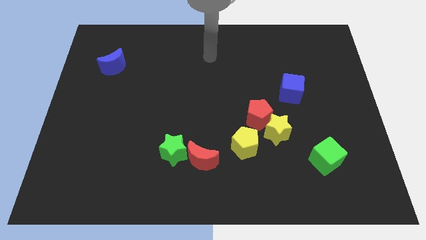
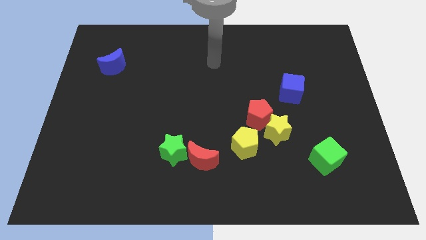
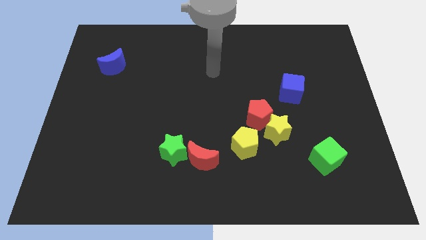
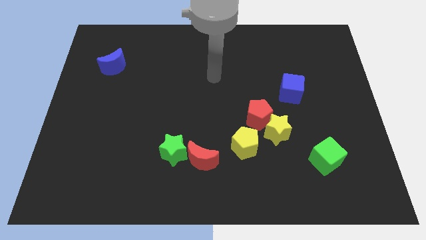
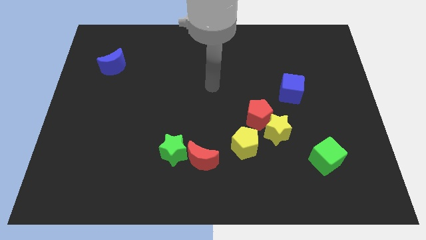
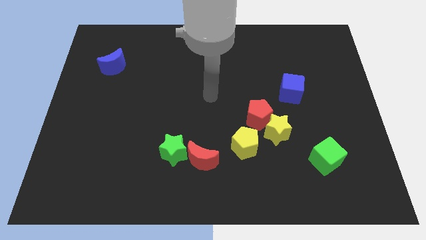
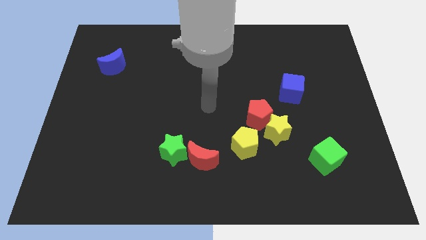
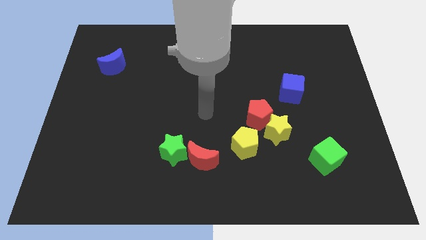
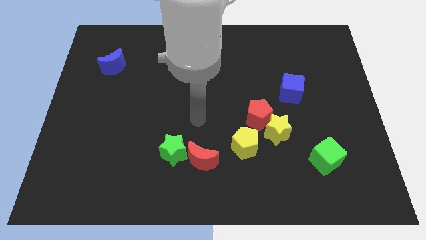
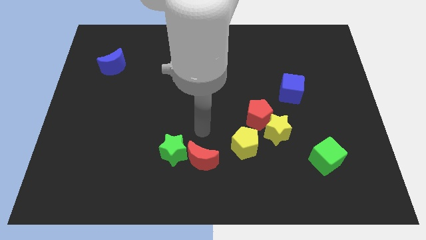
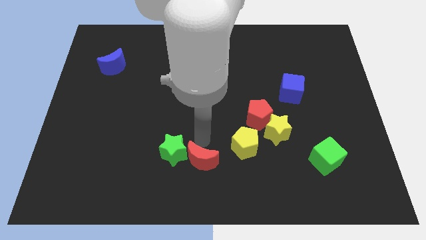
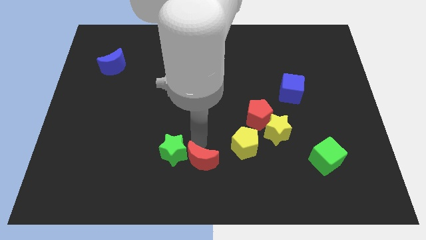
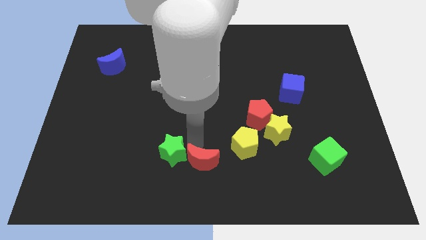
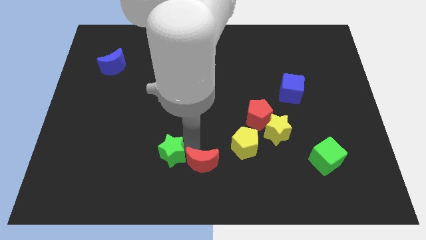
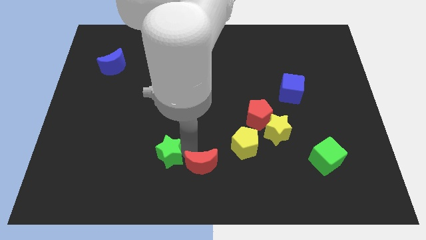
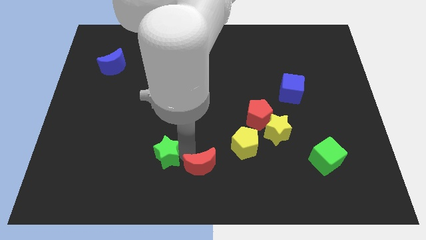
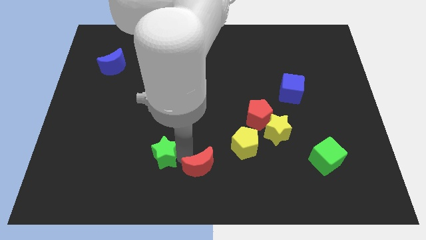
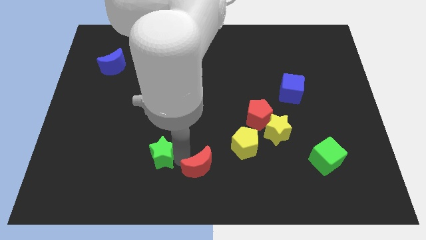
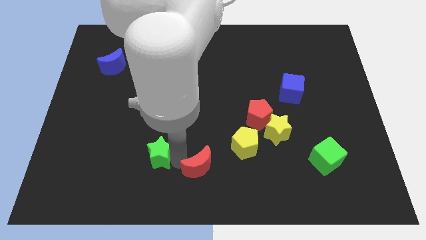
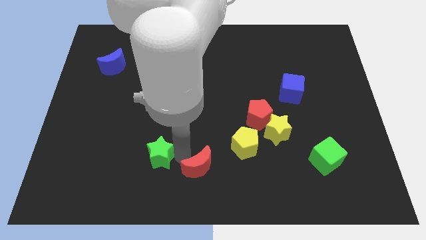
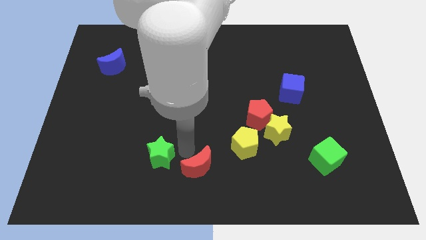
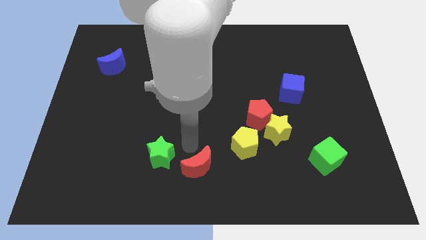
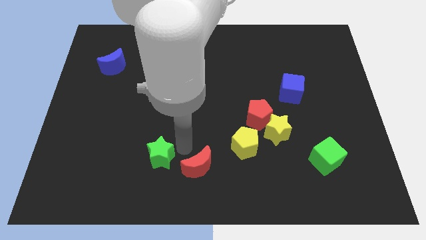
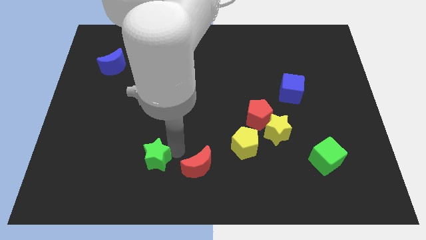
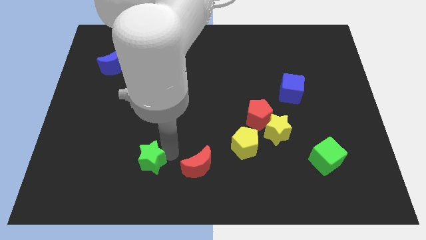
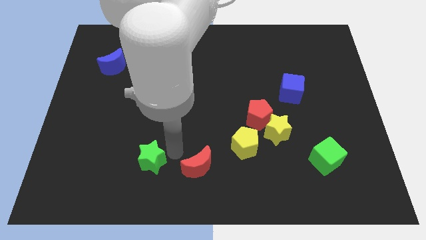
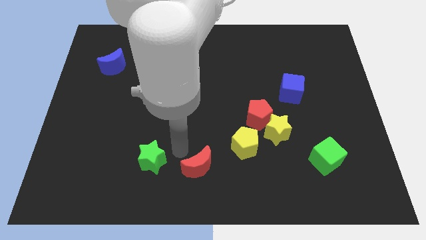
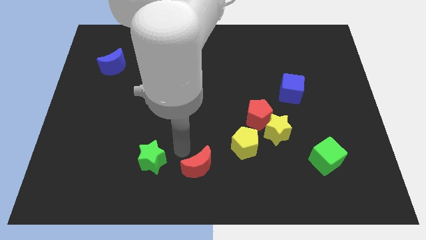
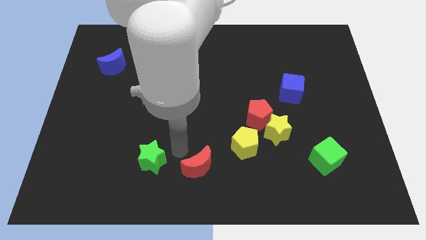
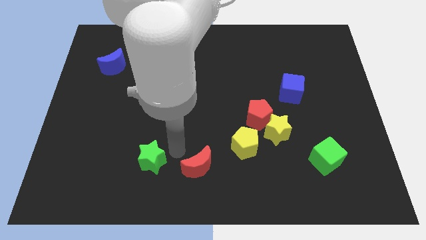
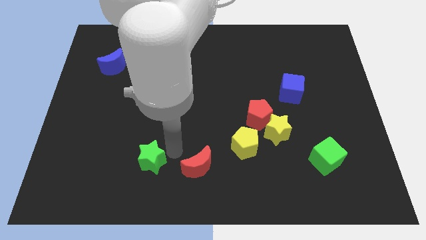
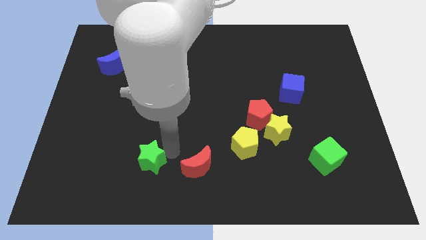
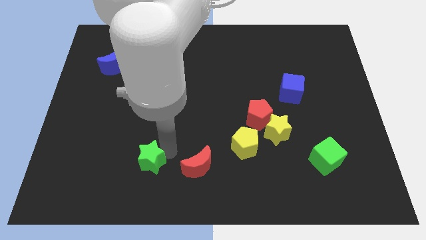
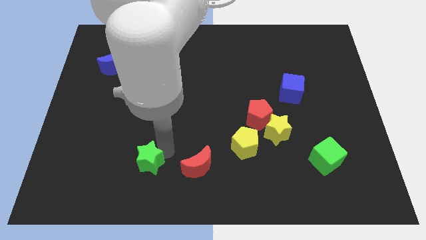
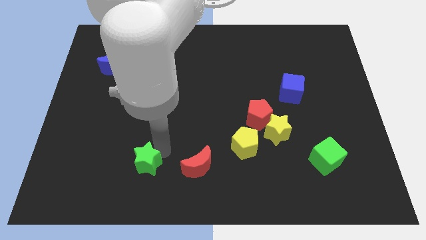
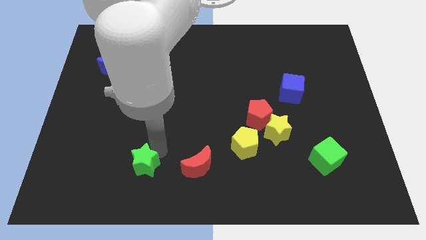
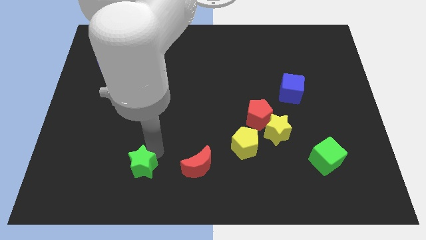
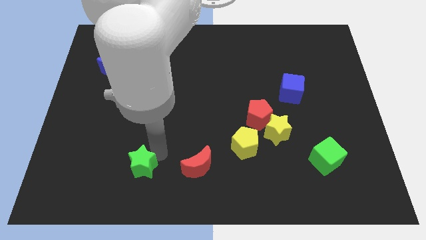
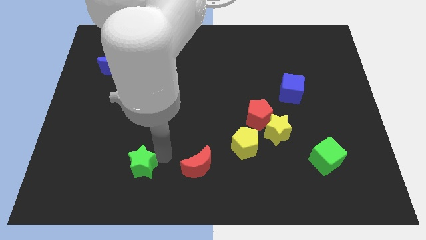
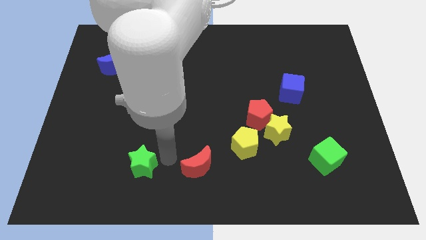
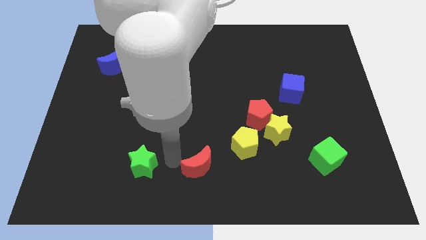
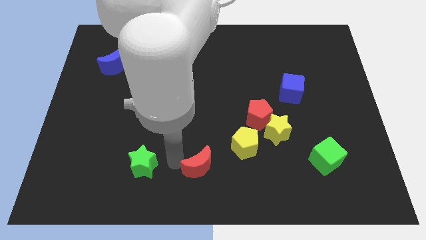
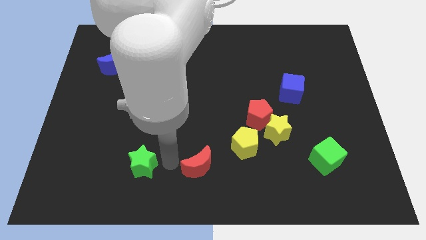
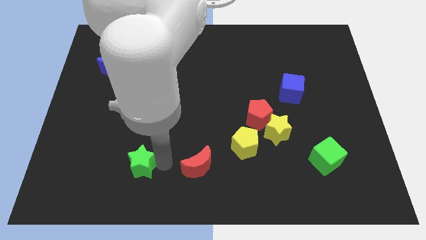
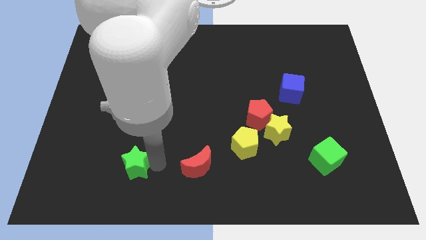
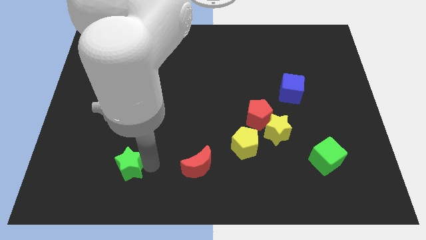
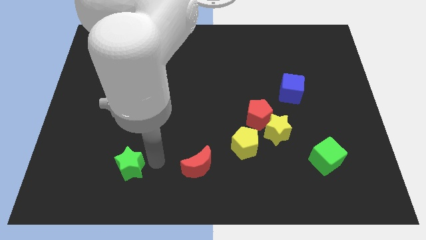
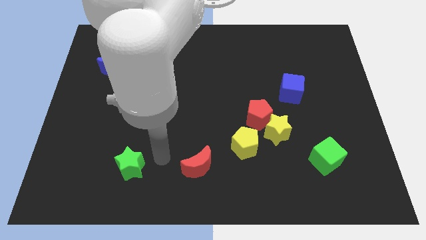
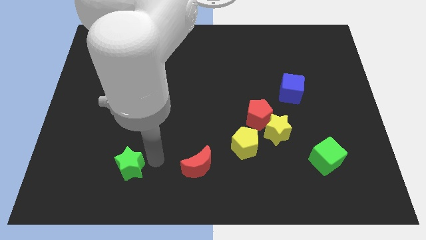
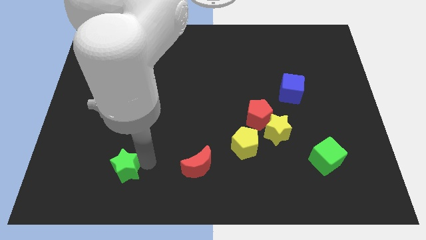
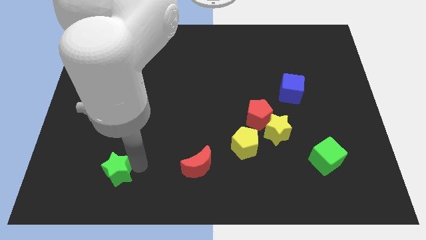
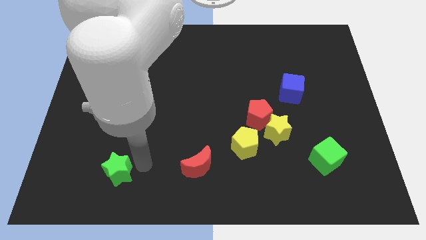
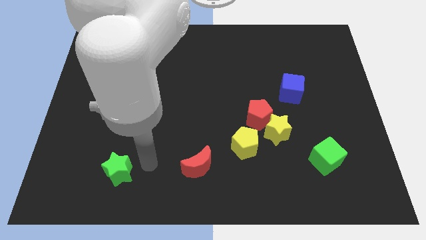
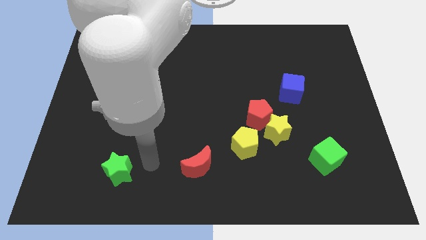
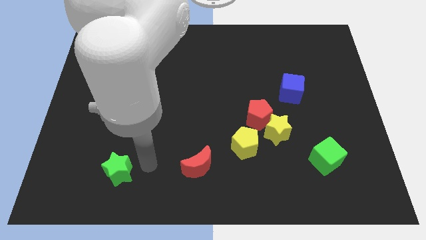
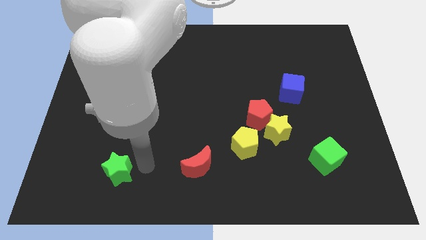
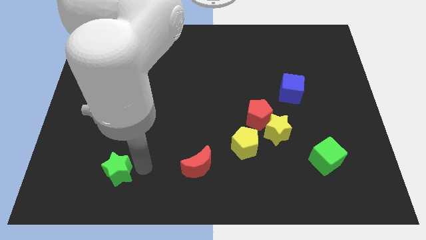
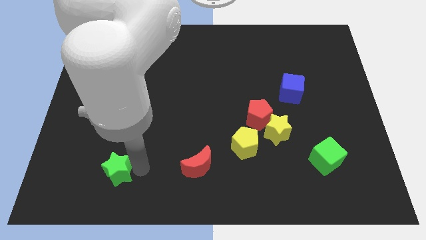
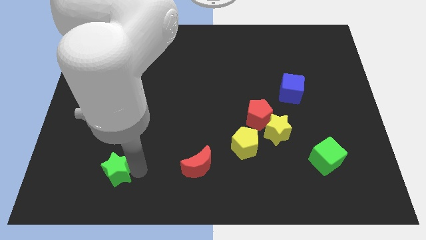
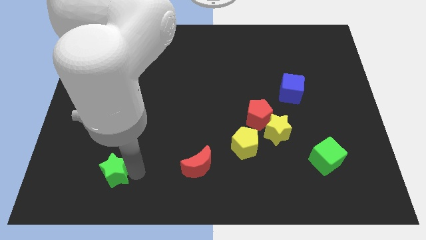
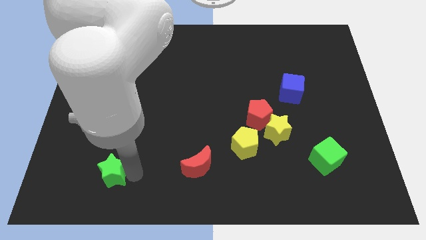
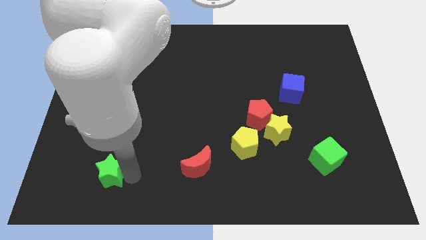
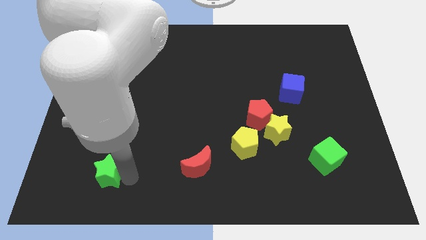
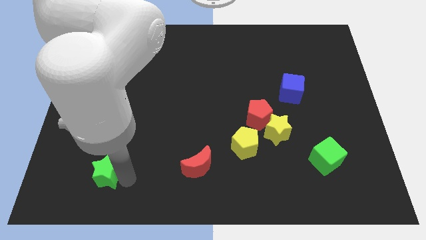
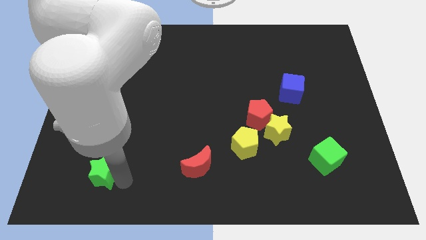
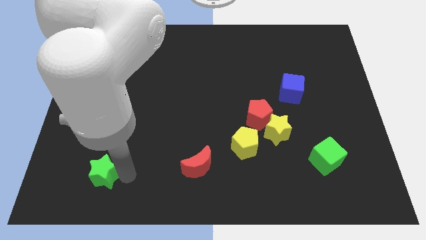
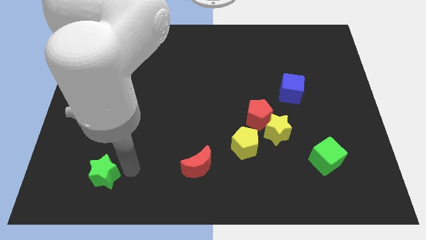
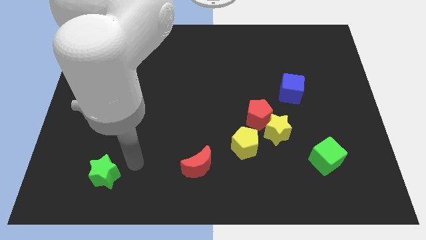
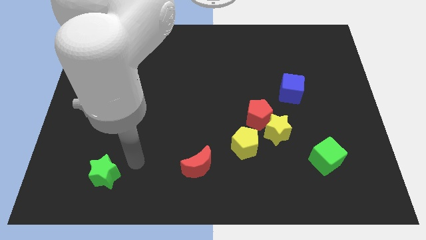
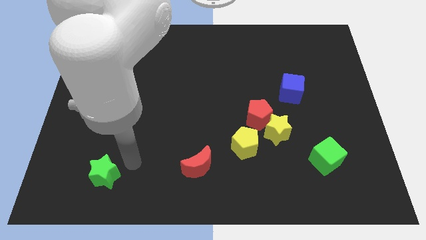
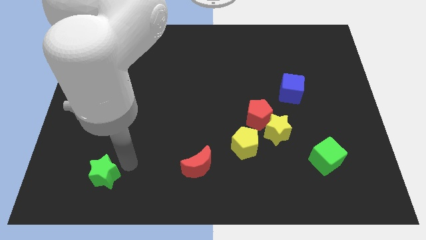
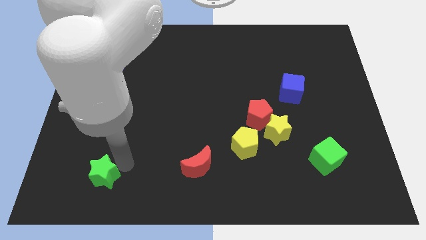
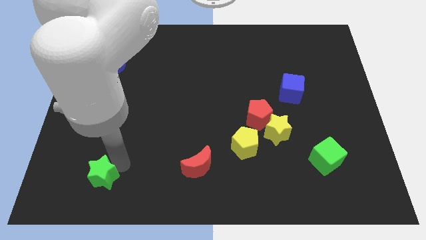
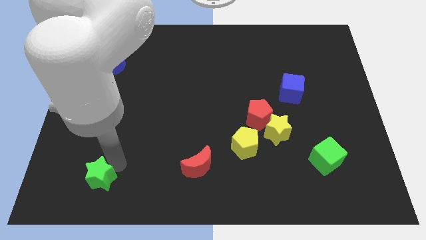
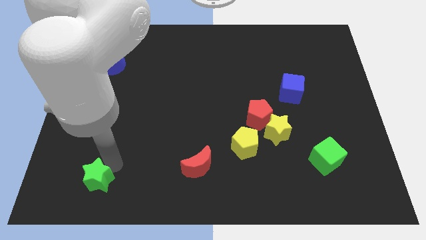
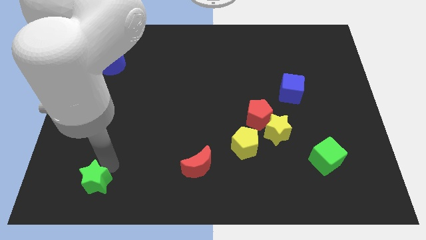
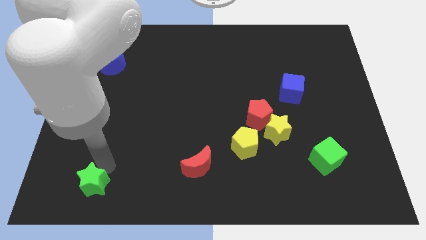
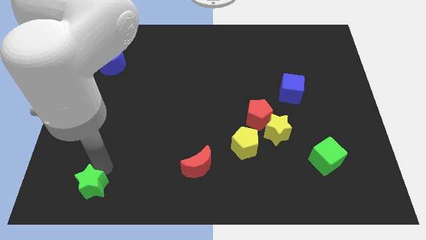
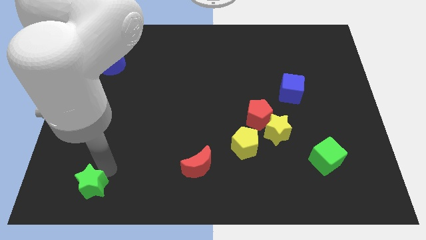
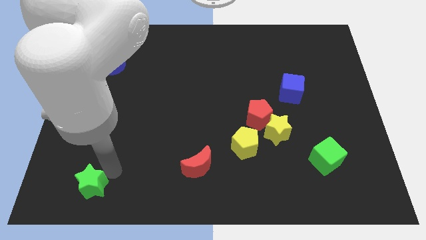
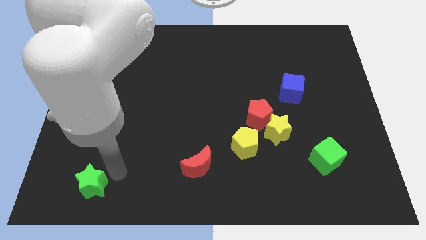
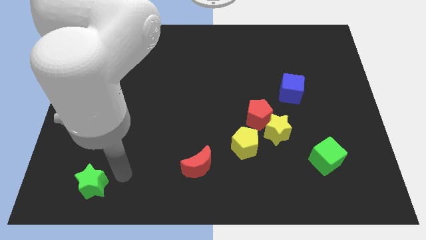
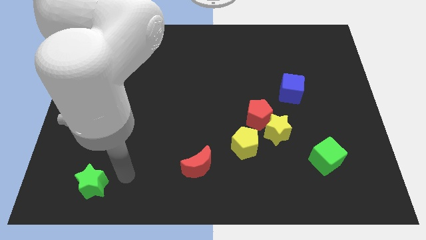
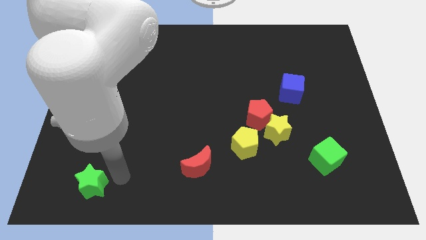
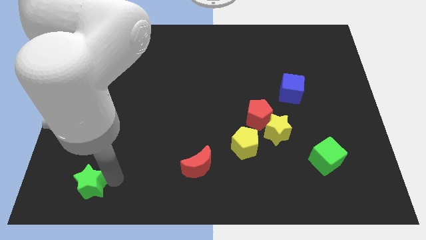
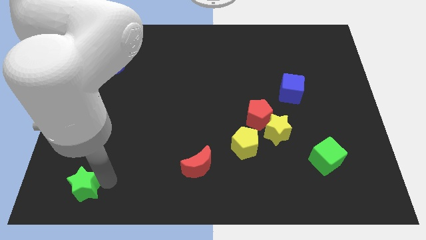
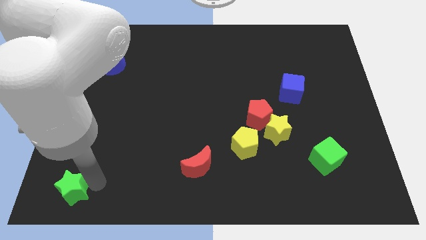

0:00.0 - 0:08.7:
slide the green star to the bottom left corner
